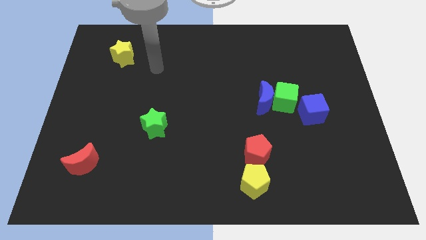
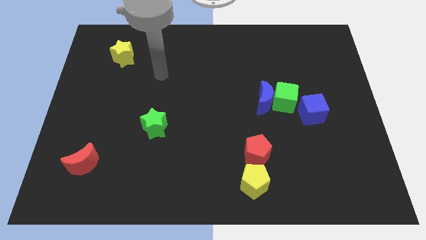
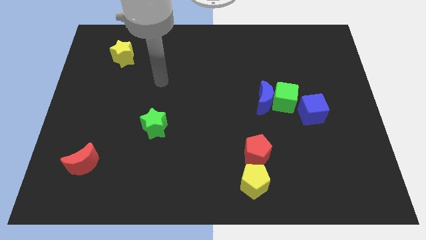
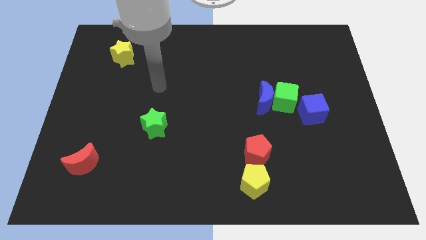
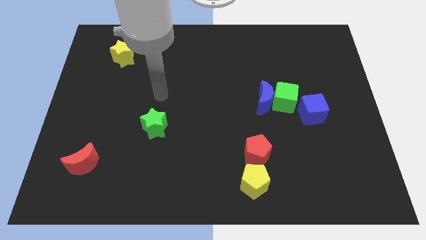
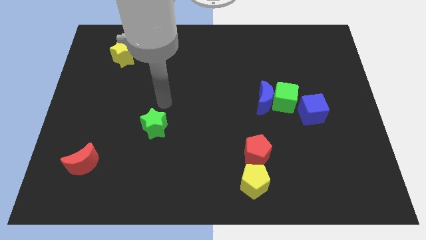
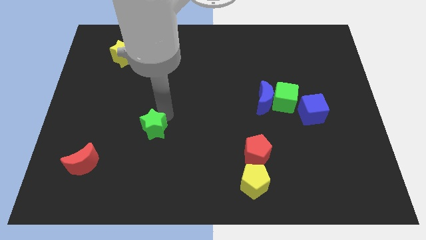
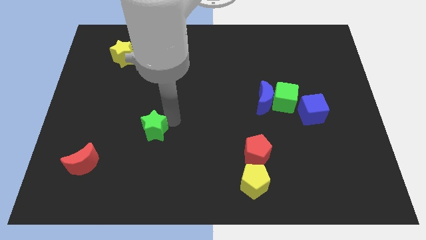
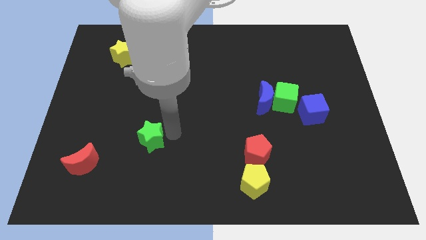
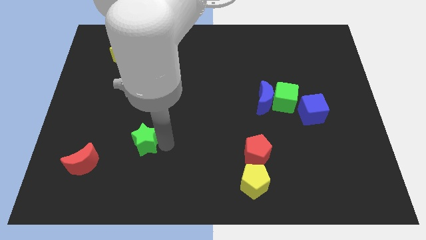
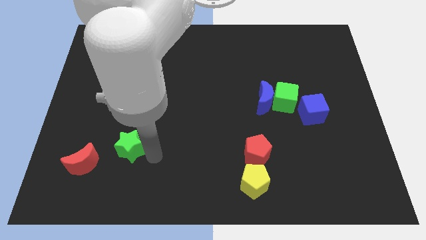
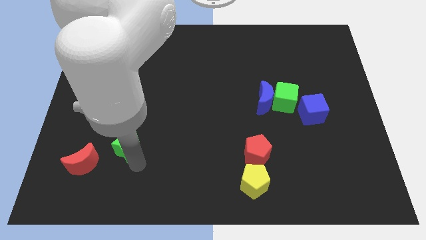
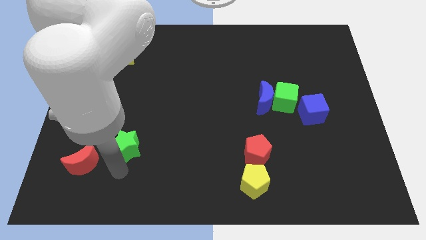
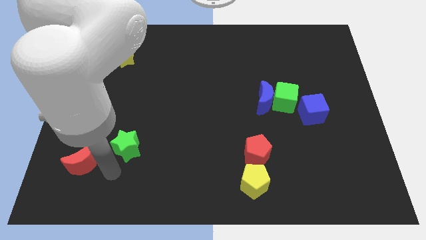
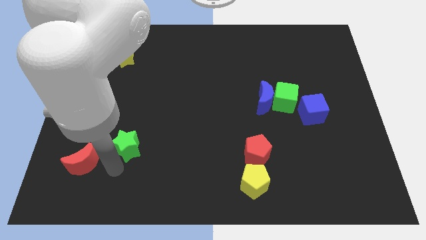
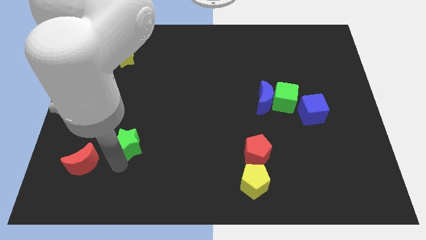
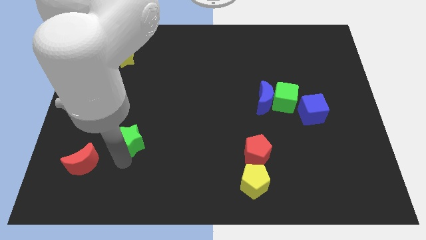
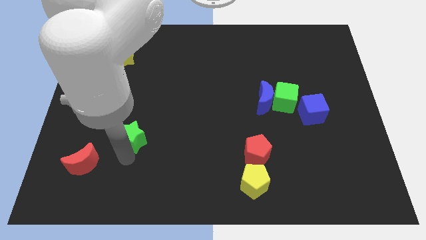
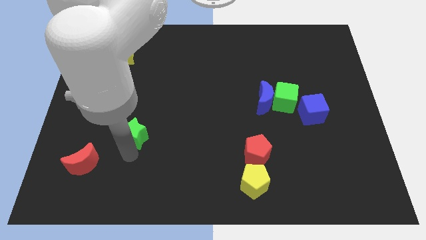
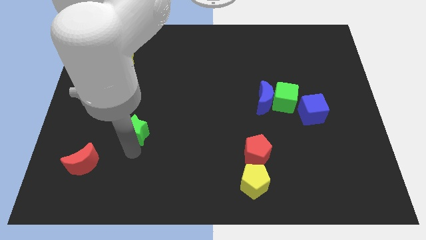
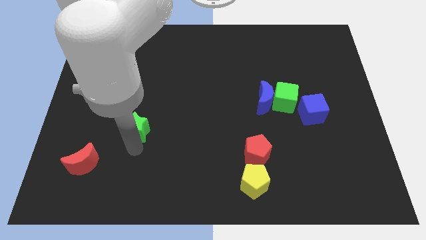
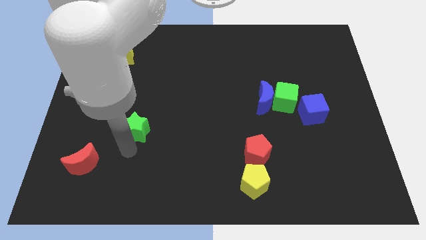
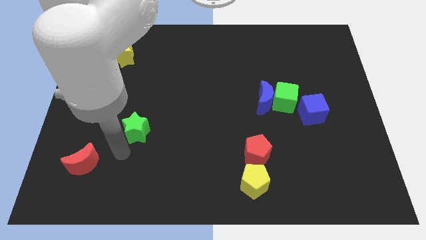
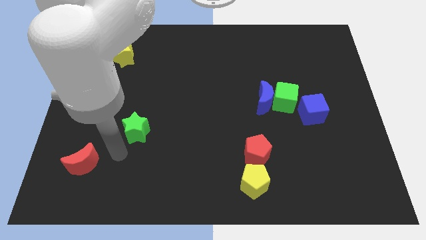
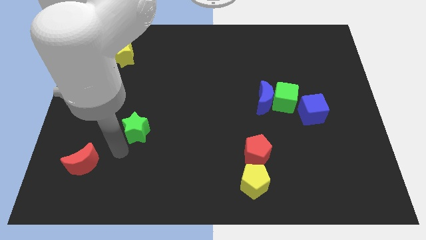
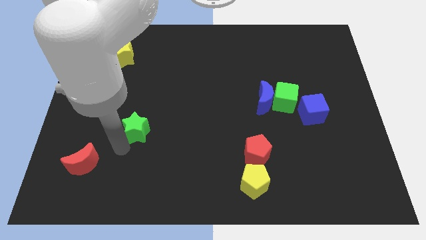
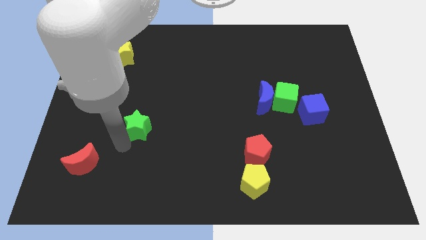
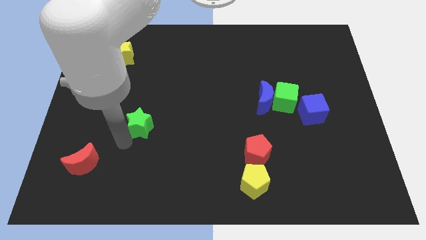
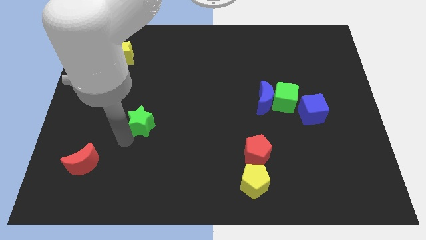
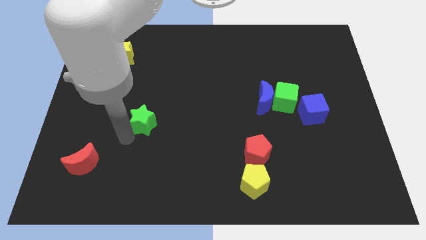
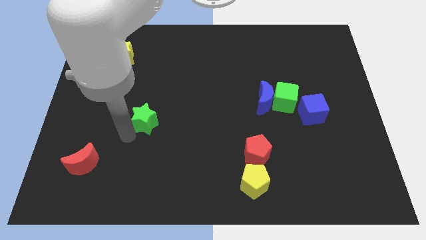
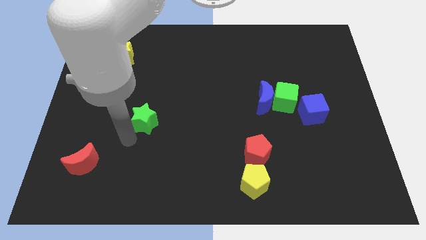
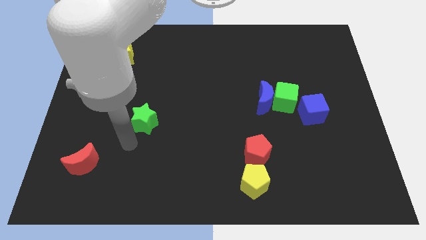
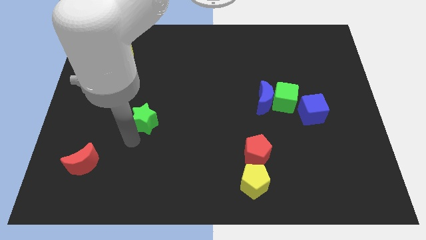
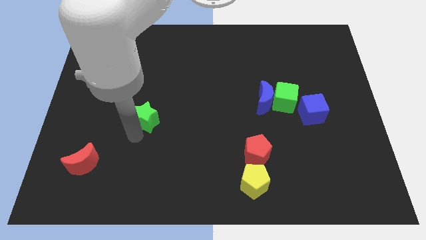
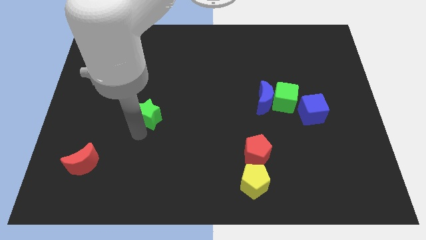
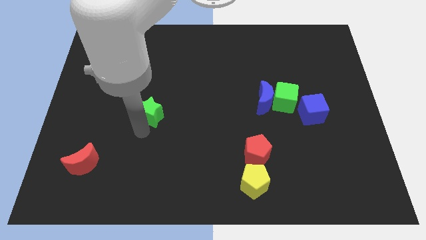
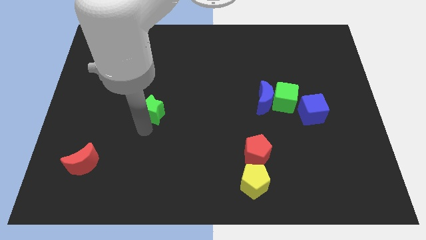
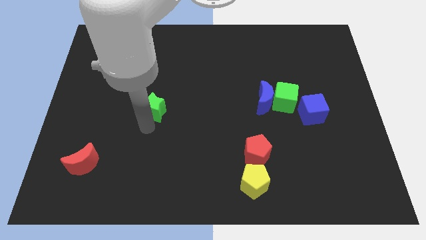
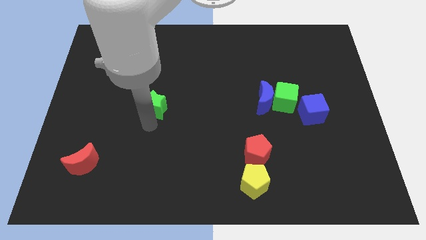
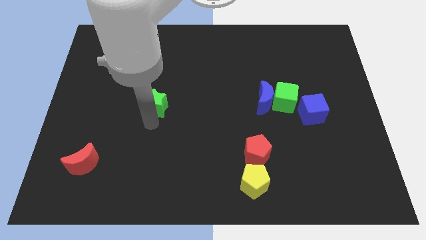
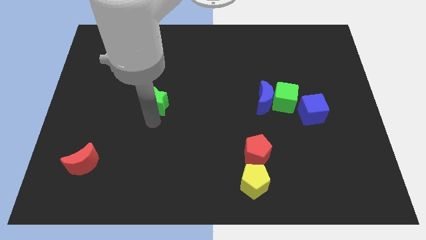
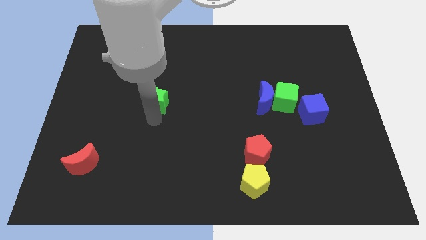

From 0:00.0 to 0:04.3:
move the green star slightly upwards

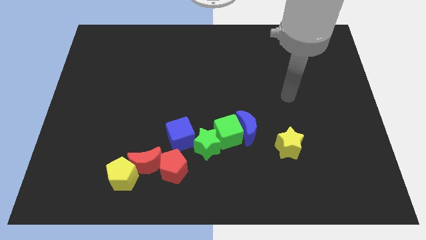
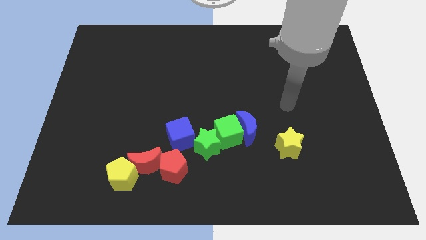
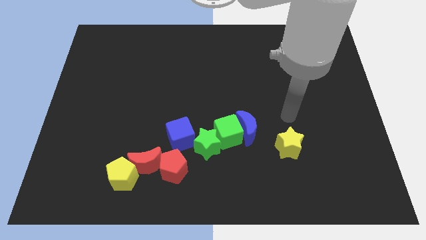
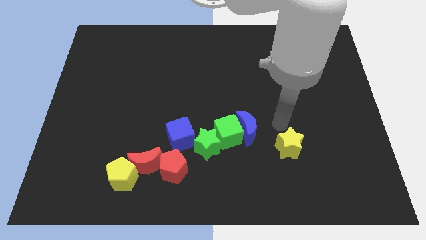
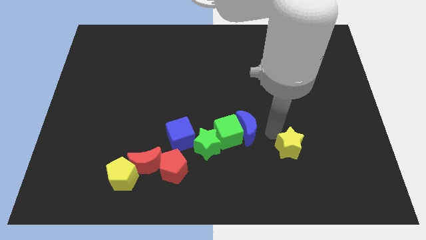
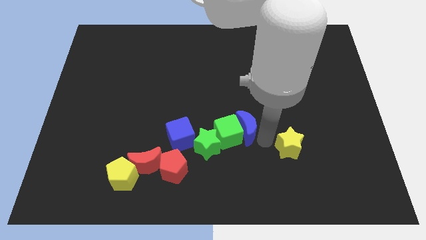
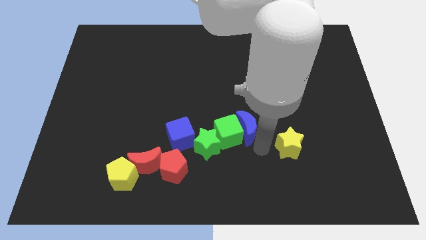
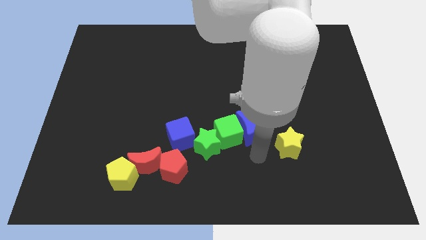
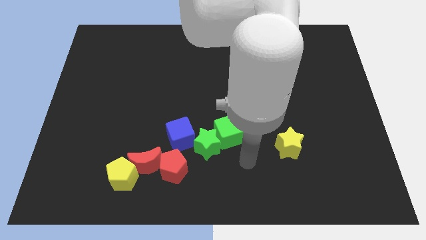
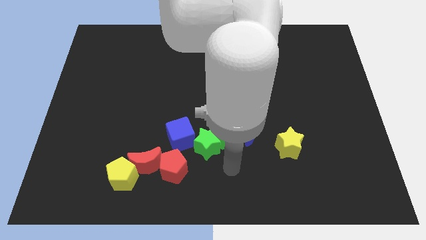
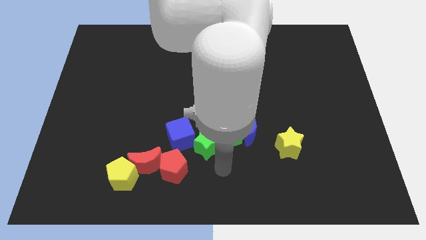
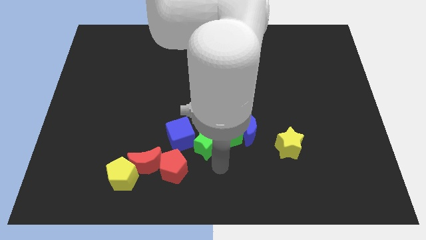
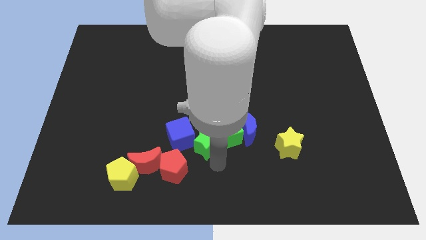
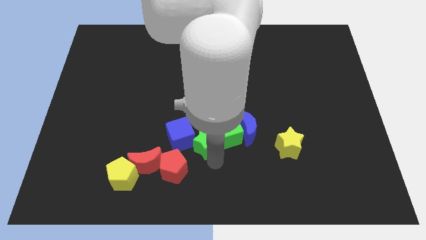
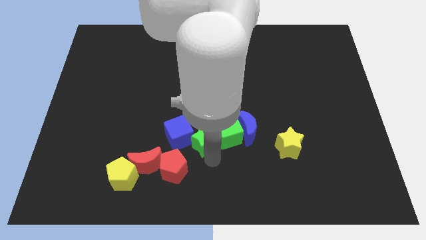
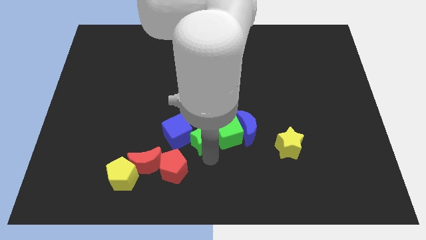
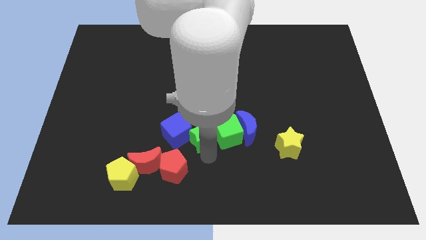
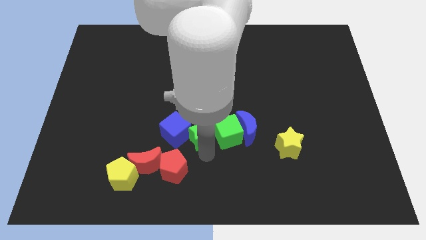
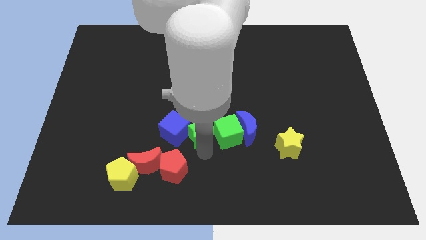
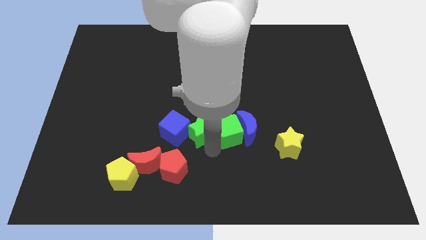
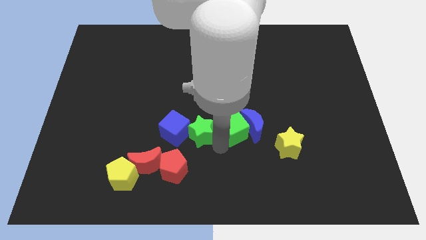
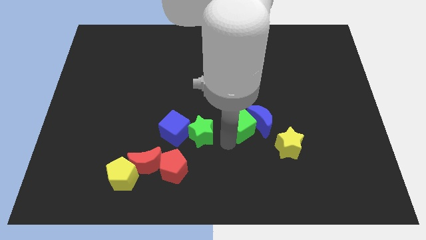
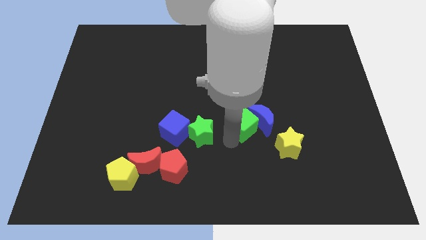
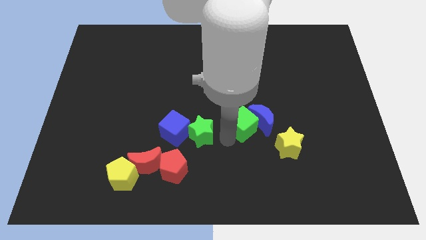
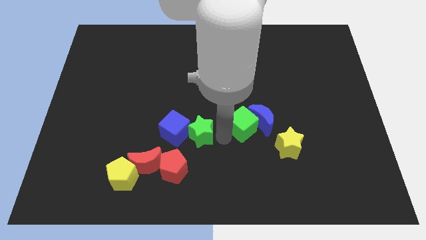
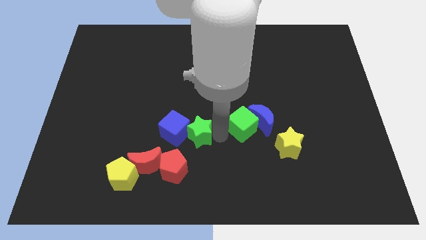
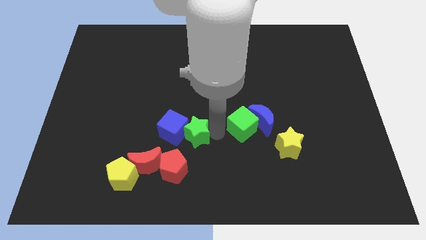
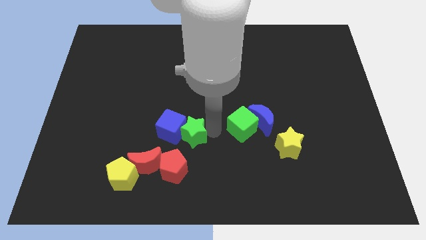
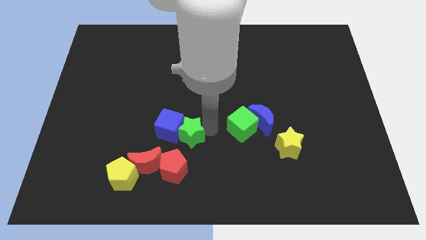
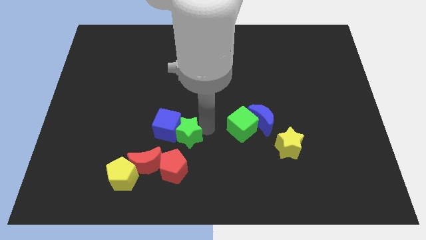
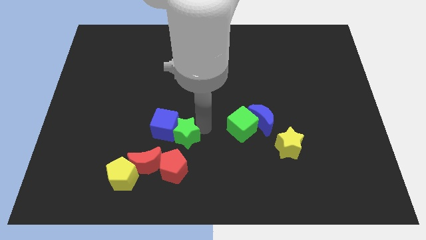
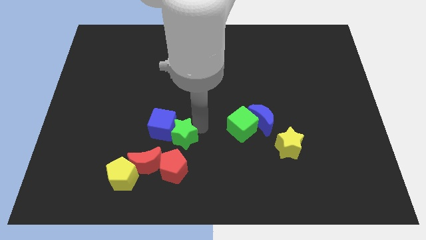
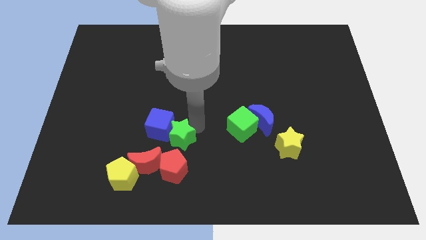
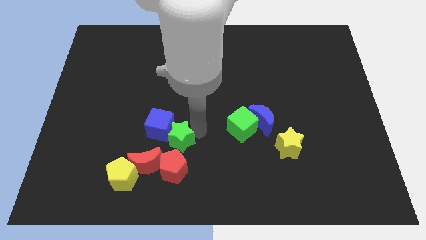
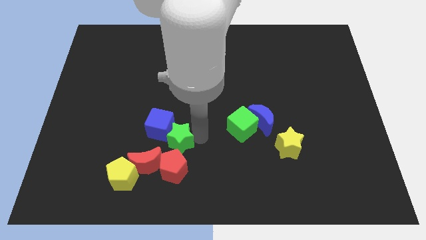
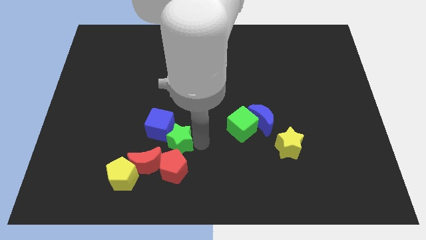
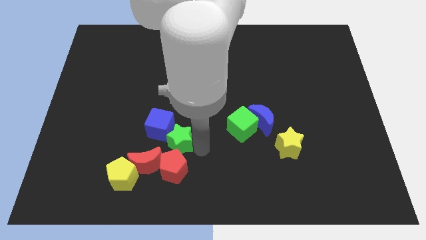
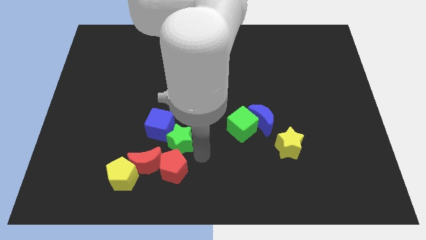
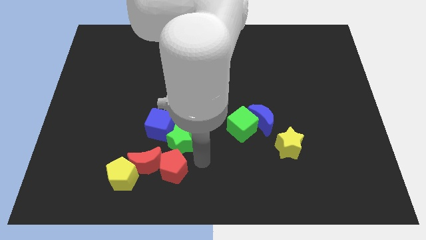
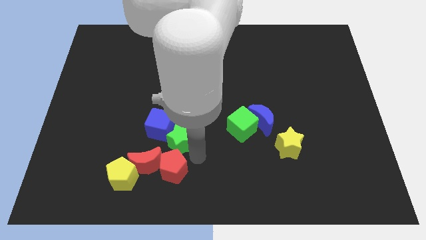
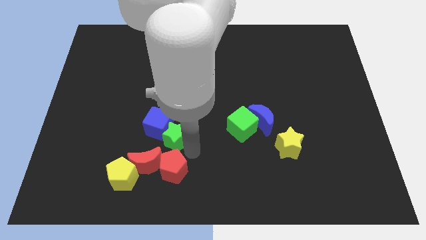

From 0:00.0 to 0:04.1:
move the green star to the left slightly
